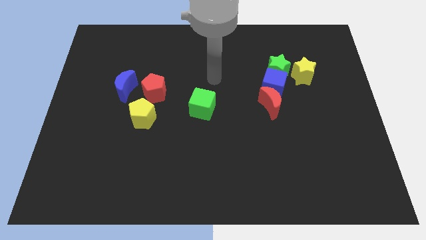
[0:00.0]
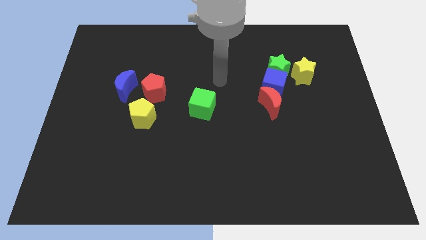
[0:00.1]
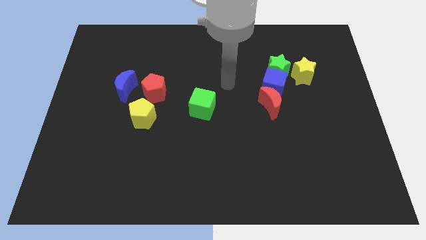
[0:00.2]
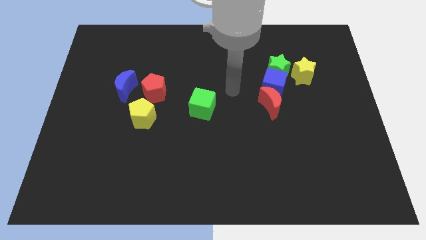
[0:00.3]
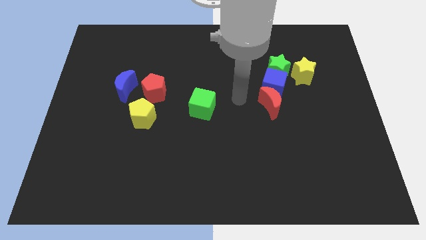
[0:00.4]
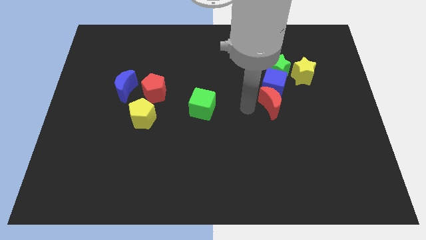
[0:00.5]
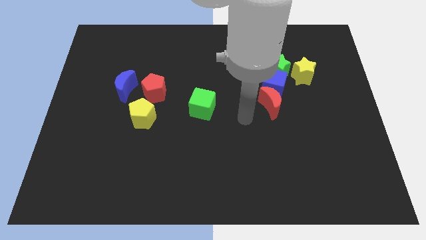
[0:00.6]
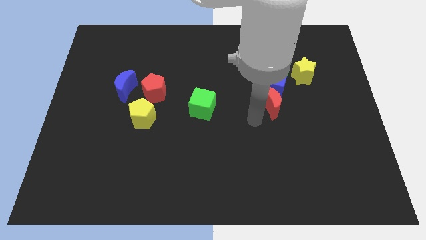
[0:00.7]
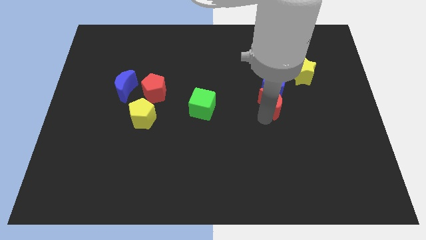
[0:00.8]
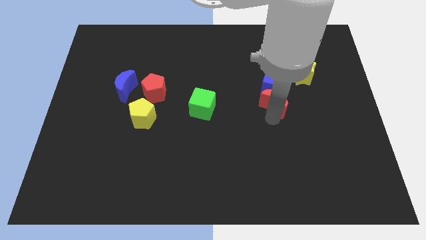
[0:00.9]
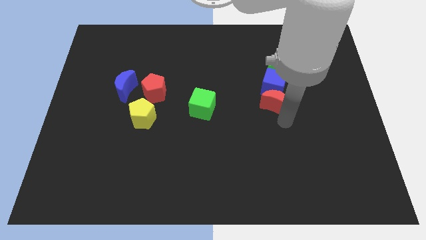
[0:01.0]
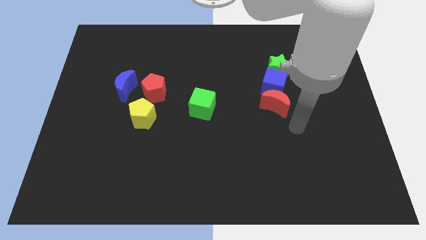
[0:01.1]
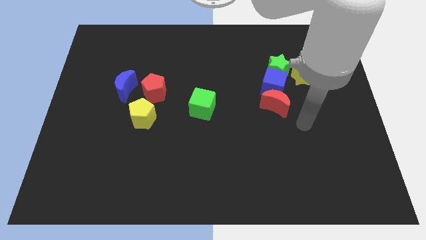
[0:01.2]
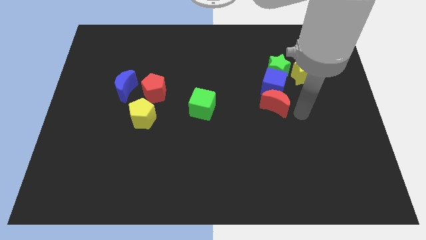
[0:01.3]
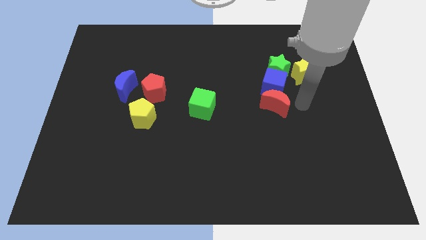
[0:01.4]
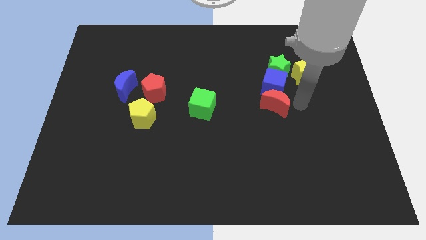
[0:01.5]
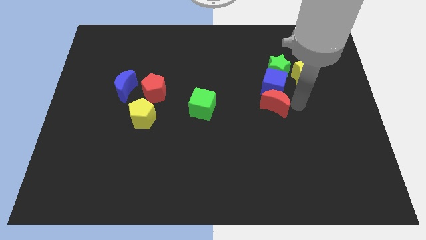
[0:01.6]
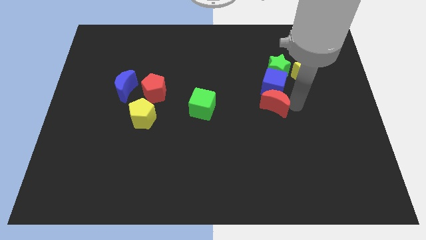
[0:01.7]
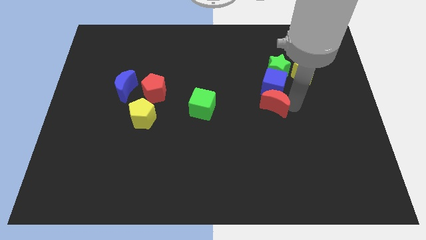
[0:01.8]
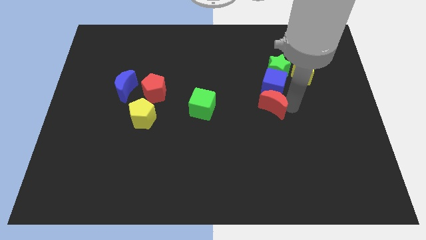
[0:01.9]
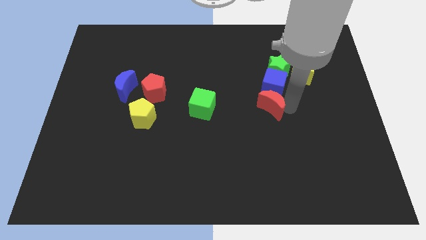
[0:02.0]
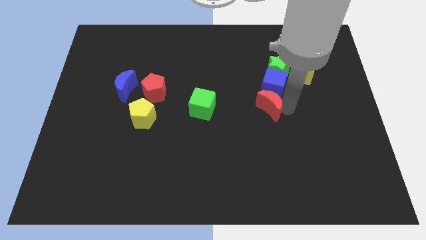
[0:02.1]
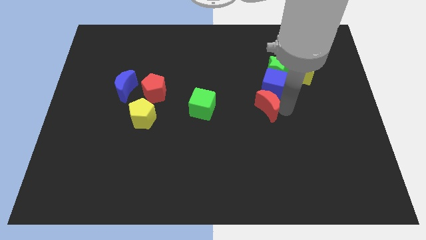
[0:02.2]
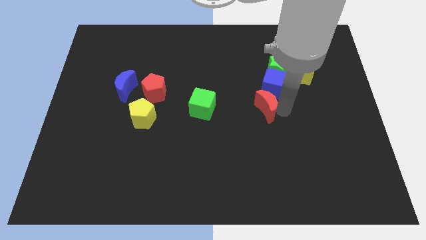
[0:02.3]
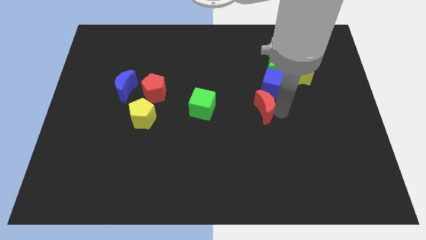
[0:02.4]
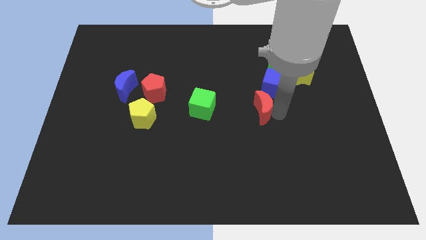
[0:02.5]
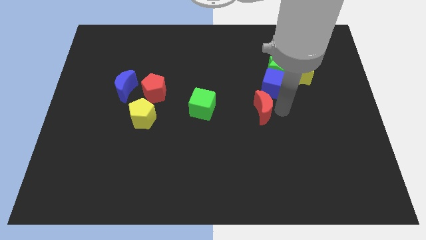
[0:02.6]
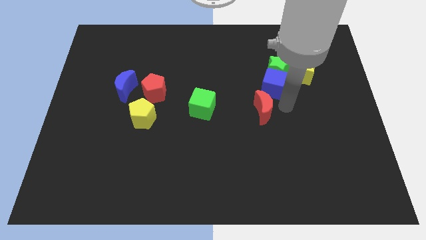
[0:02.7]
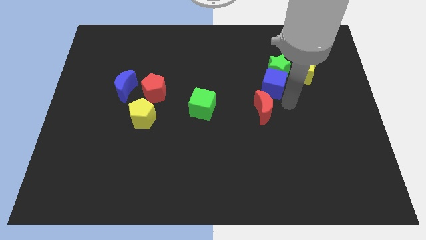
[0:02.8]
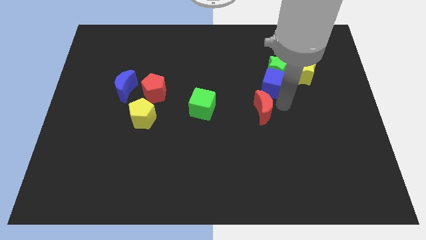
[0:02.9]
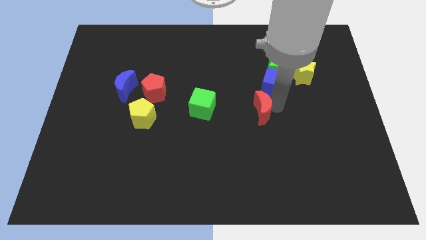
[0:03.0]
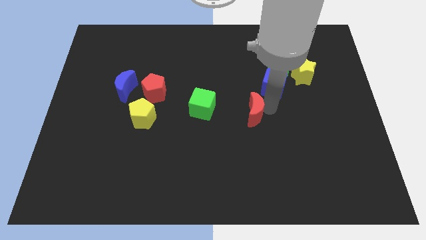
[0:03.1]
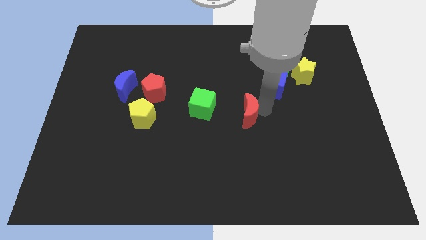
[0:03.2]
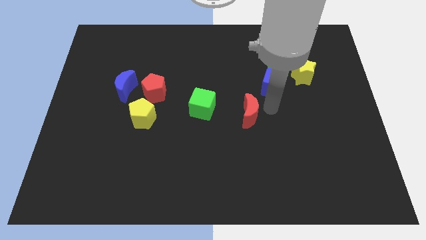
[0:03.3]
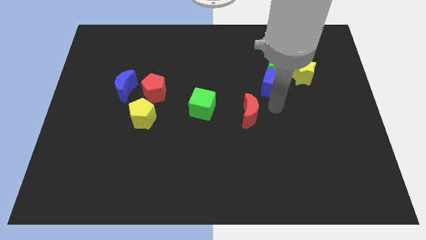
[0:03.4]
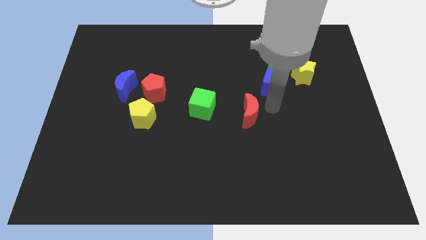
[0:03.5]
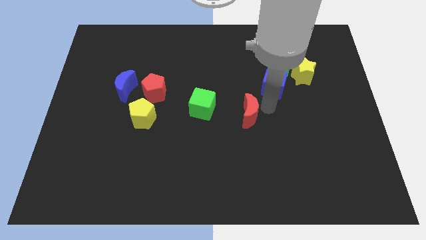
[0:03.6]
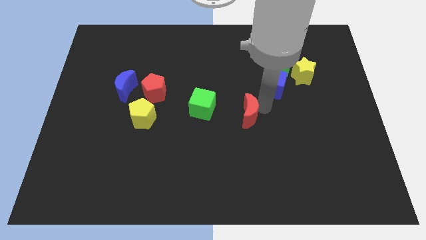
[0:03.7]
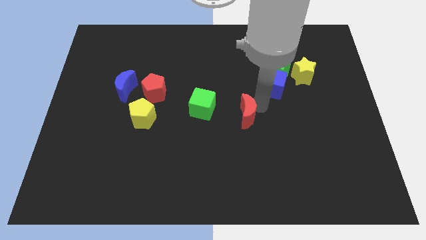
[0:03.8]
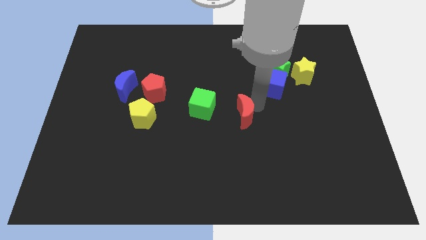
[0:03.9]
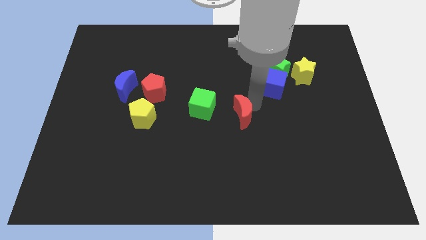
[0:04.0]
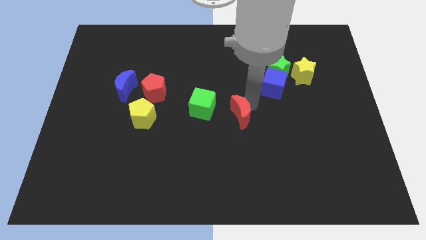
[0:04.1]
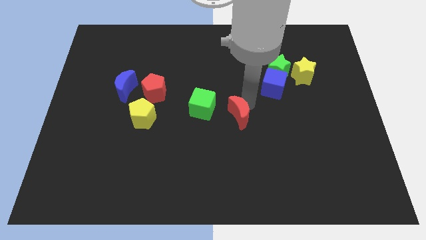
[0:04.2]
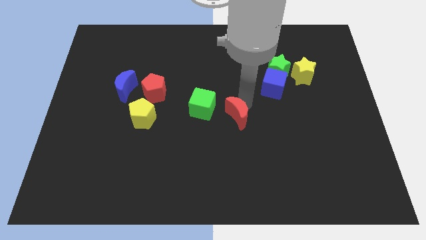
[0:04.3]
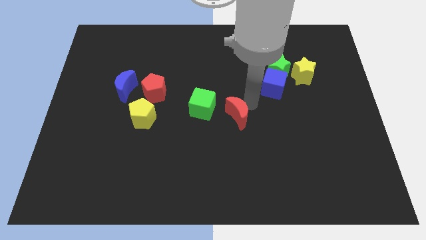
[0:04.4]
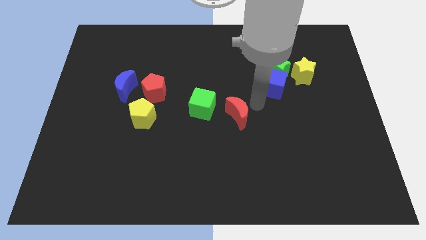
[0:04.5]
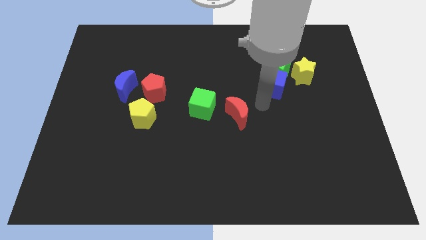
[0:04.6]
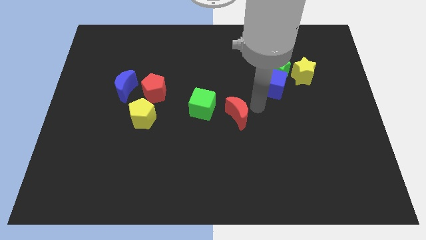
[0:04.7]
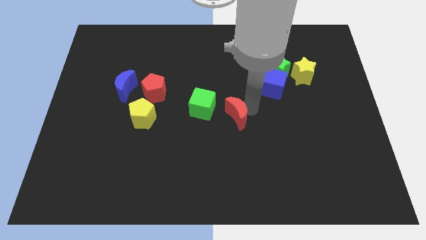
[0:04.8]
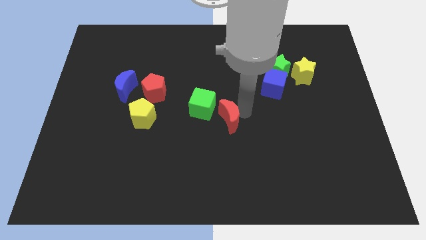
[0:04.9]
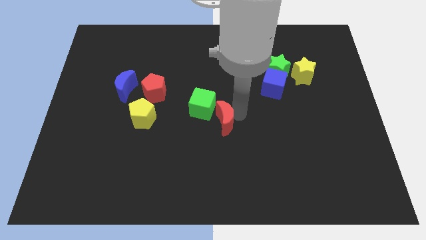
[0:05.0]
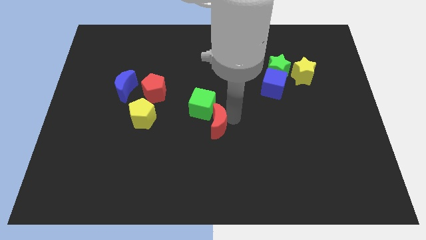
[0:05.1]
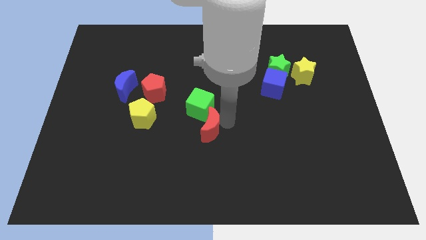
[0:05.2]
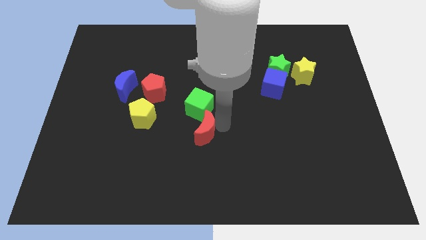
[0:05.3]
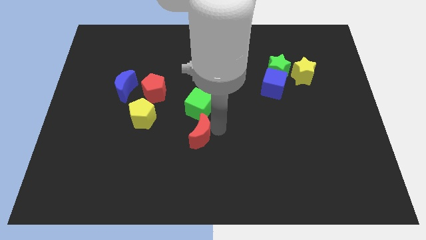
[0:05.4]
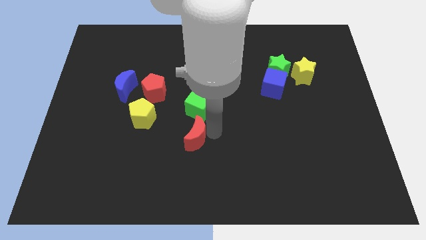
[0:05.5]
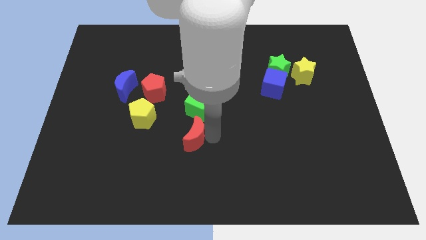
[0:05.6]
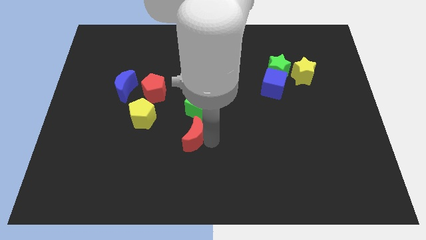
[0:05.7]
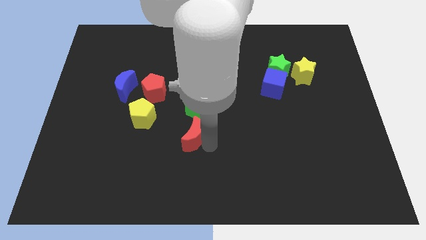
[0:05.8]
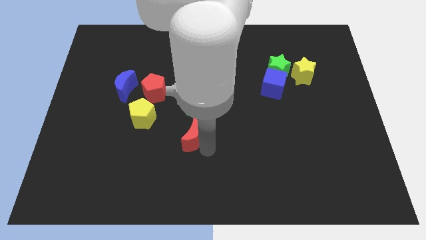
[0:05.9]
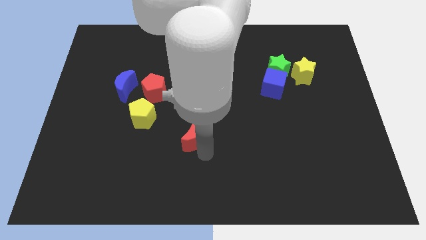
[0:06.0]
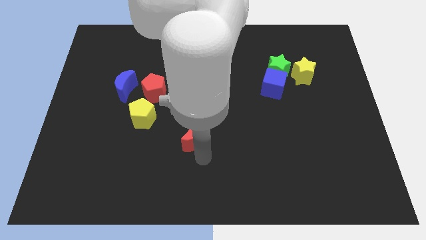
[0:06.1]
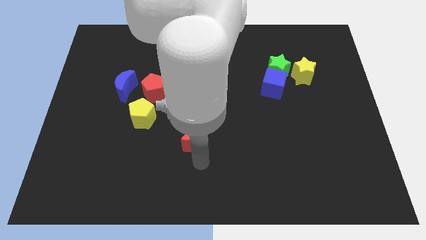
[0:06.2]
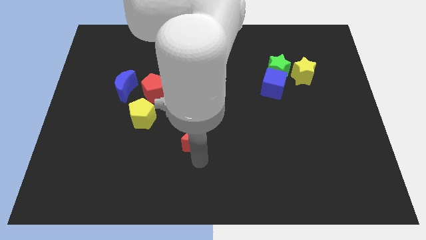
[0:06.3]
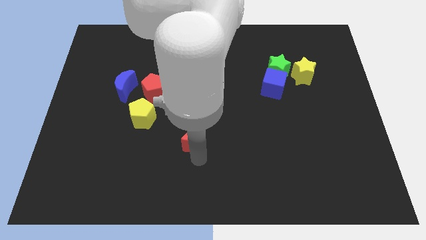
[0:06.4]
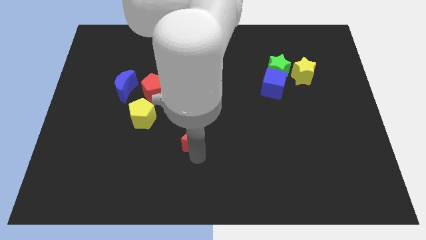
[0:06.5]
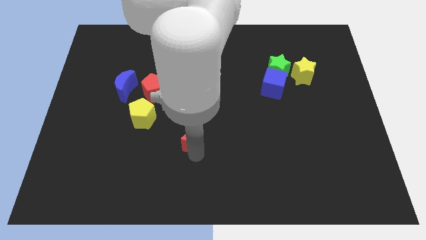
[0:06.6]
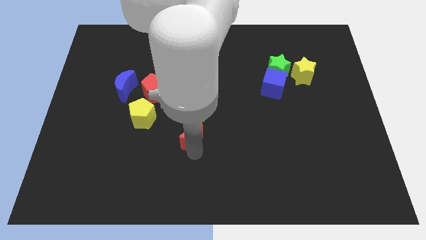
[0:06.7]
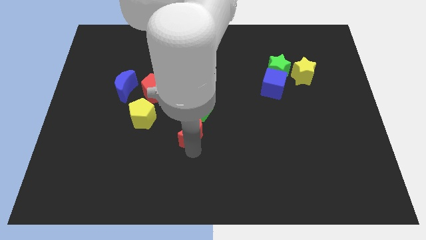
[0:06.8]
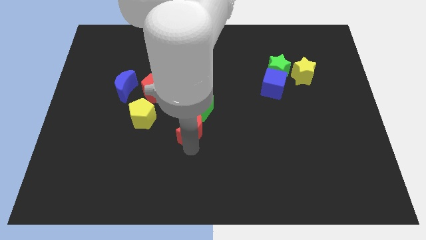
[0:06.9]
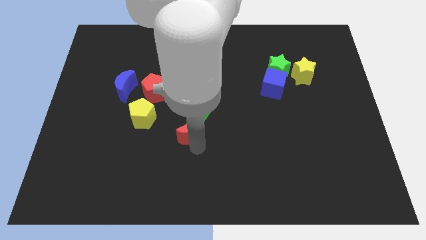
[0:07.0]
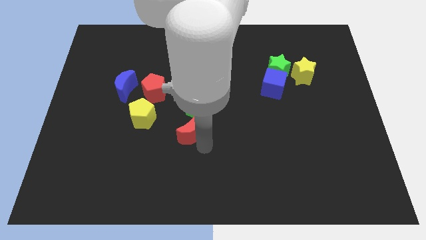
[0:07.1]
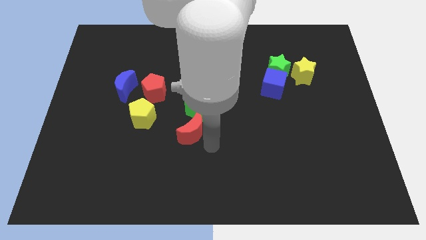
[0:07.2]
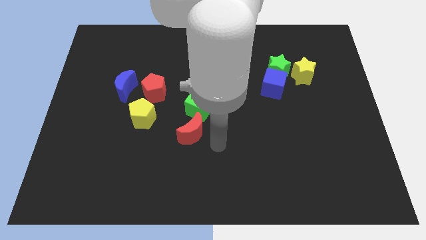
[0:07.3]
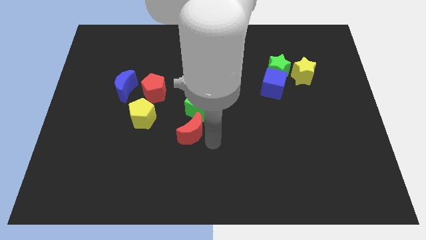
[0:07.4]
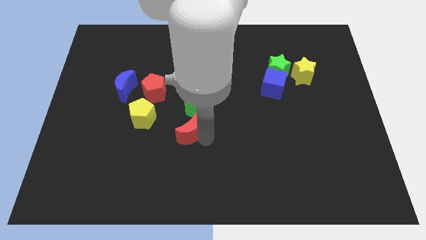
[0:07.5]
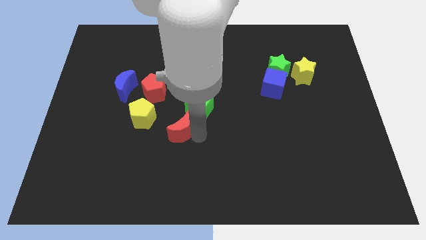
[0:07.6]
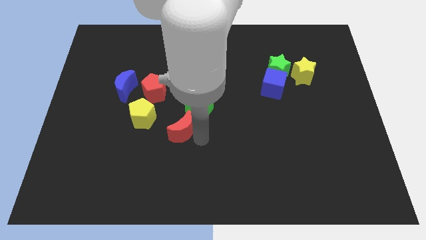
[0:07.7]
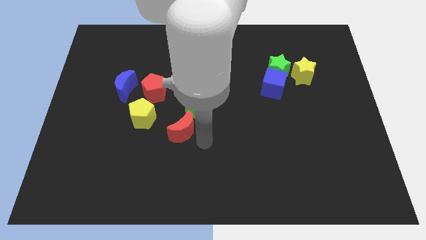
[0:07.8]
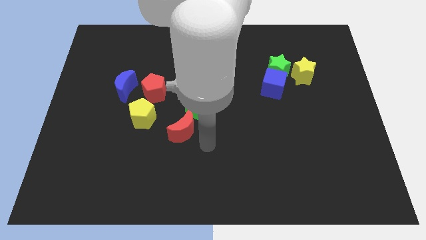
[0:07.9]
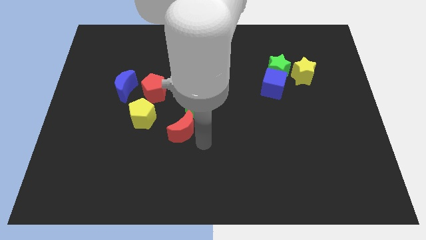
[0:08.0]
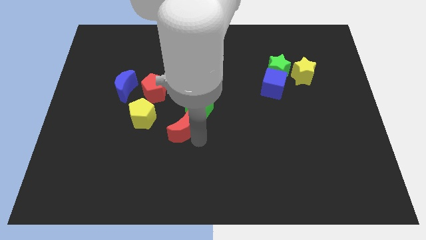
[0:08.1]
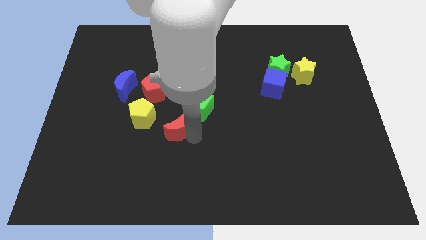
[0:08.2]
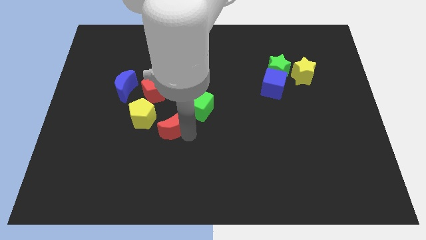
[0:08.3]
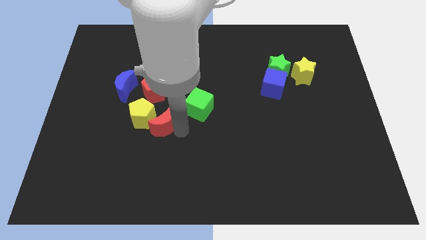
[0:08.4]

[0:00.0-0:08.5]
slide the red moon to the yellow pentagon
